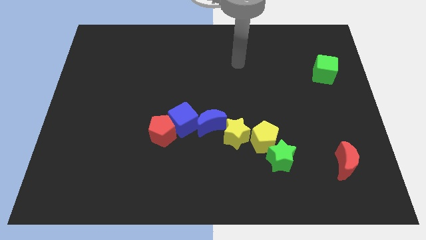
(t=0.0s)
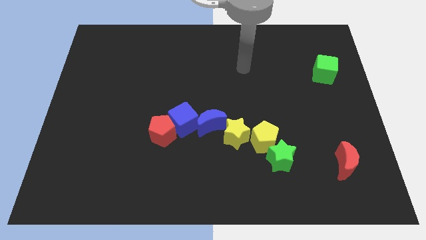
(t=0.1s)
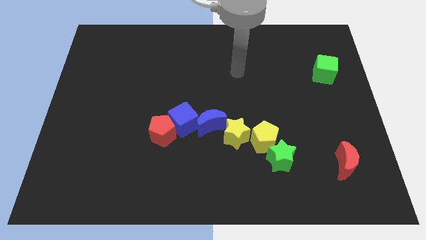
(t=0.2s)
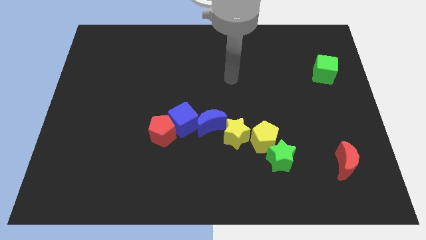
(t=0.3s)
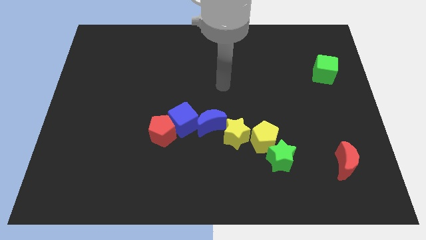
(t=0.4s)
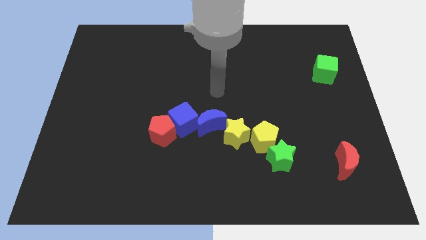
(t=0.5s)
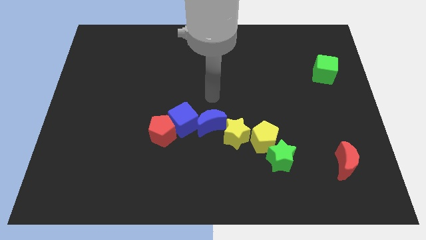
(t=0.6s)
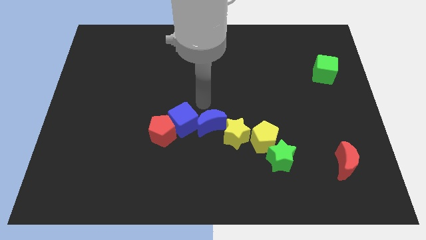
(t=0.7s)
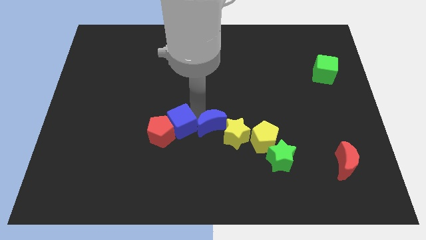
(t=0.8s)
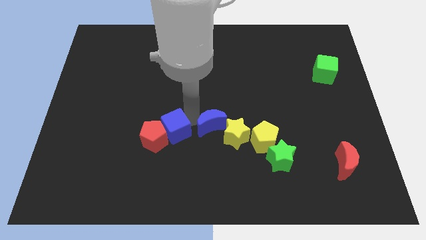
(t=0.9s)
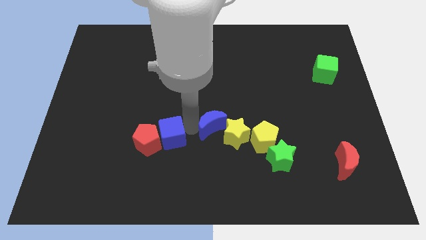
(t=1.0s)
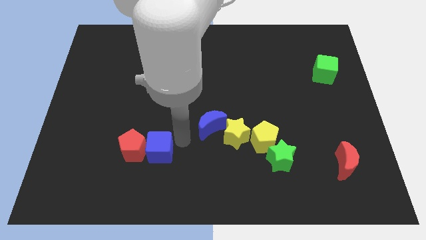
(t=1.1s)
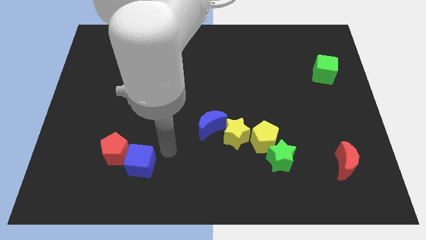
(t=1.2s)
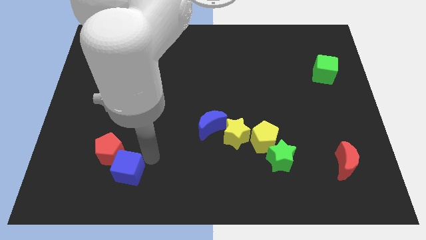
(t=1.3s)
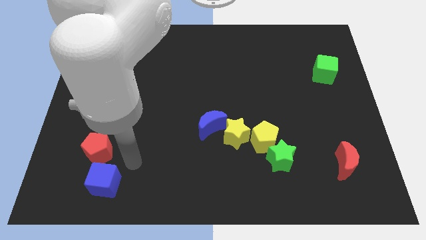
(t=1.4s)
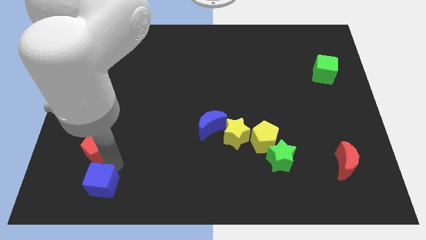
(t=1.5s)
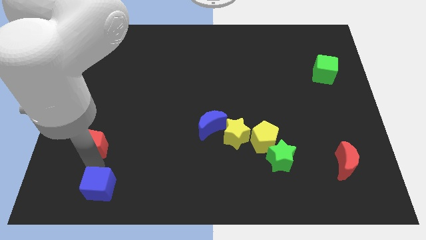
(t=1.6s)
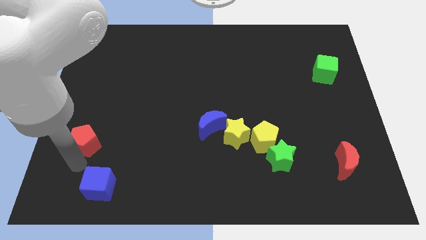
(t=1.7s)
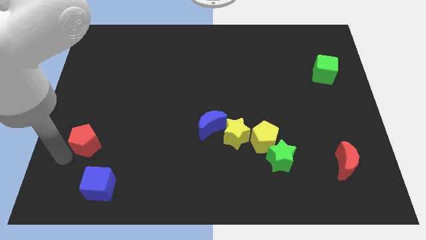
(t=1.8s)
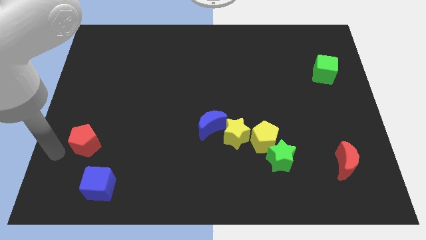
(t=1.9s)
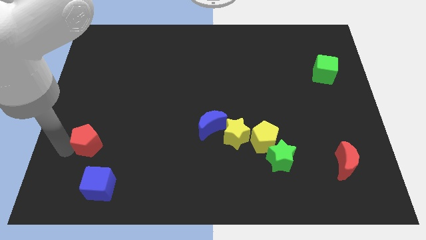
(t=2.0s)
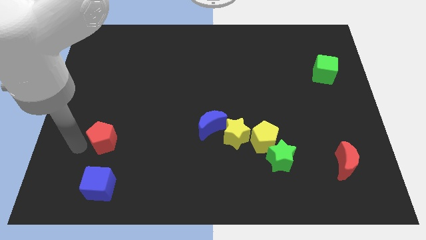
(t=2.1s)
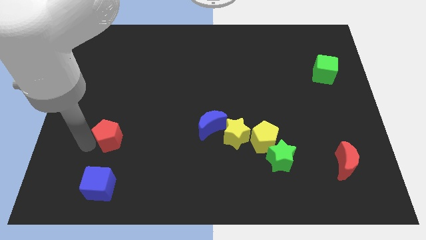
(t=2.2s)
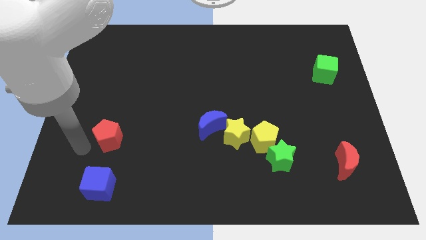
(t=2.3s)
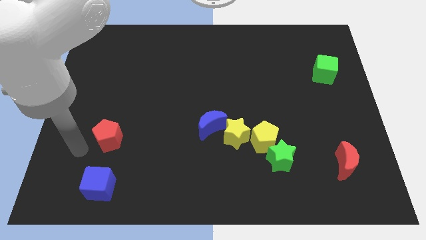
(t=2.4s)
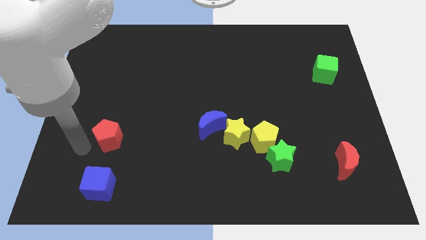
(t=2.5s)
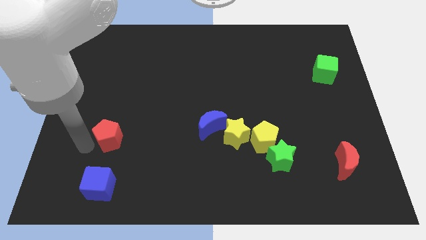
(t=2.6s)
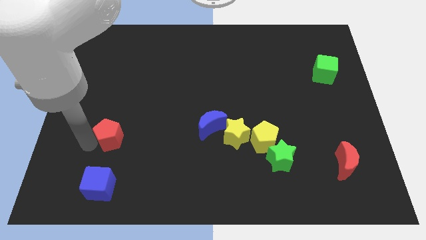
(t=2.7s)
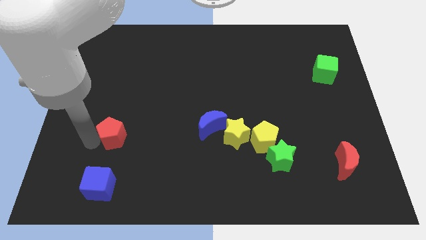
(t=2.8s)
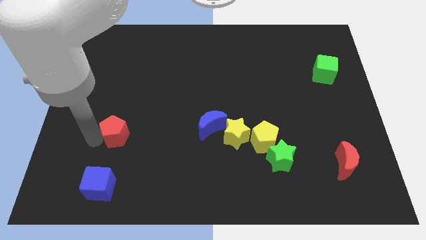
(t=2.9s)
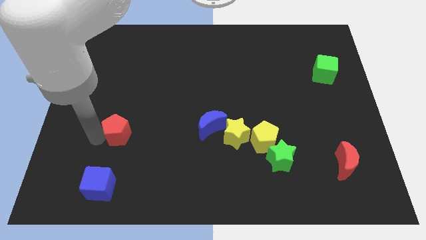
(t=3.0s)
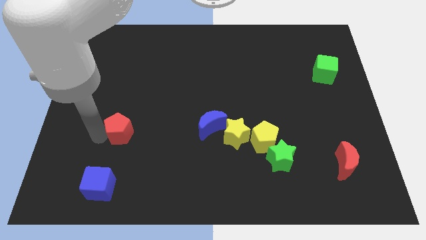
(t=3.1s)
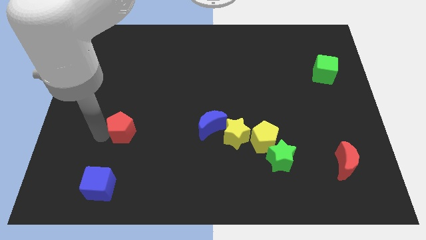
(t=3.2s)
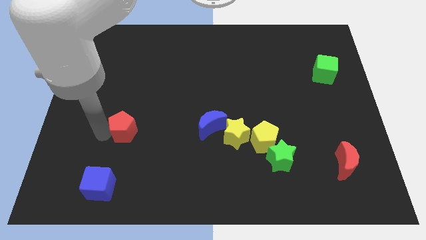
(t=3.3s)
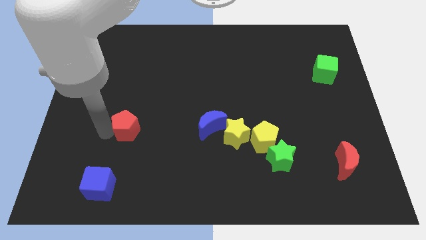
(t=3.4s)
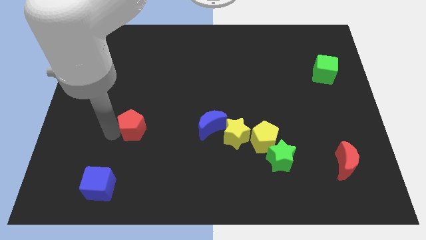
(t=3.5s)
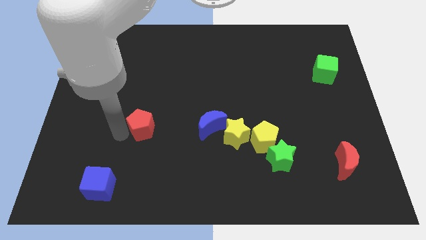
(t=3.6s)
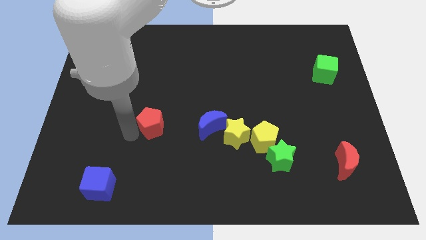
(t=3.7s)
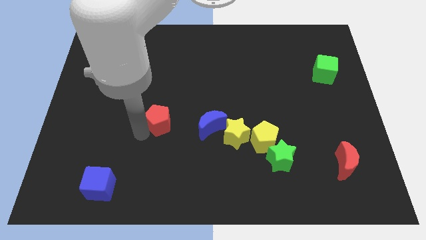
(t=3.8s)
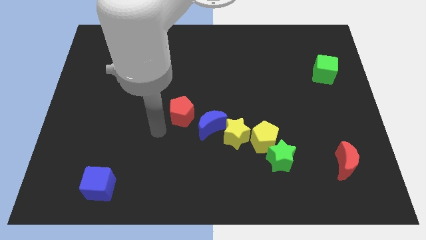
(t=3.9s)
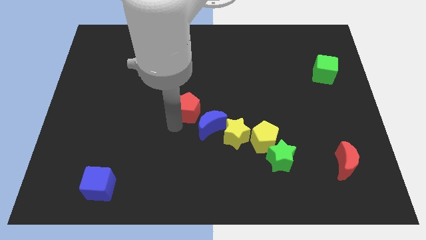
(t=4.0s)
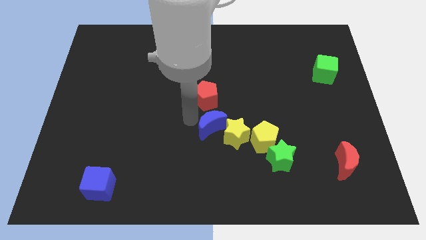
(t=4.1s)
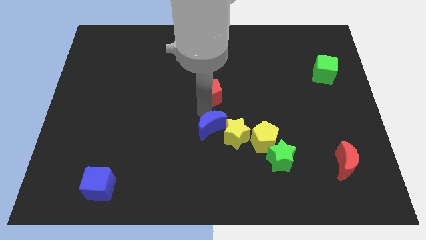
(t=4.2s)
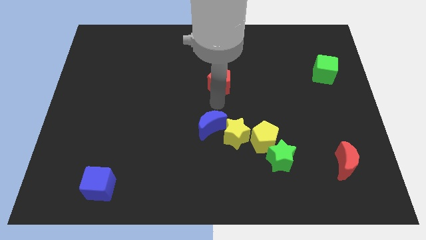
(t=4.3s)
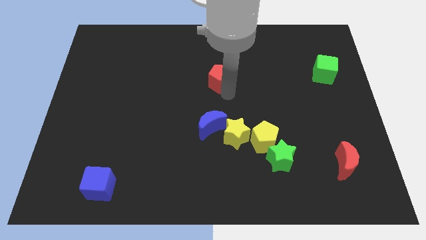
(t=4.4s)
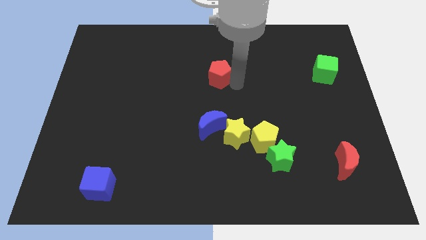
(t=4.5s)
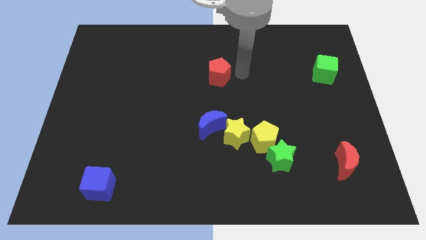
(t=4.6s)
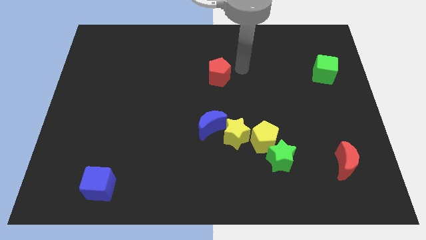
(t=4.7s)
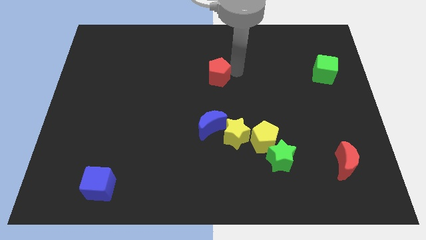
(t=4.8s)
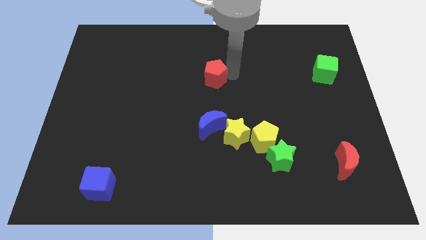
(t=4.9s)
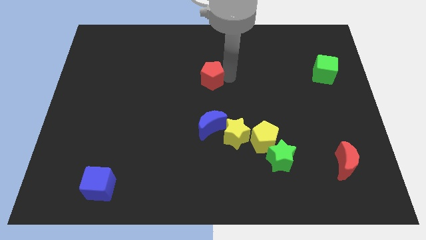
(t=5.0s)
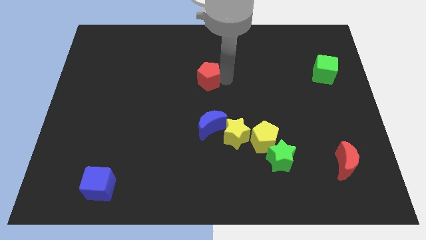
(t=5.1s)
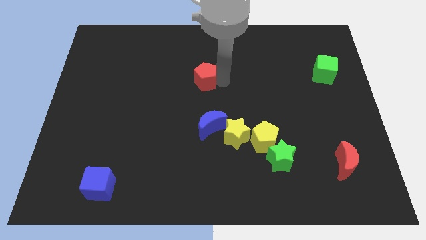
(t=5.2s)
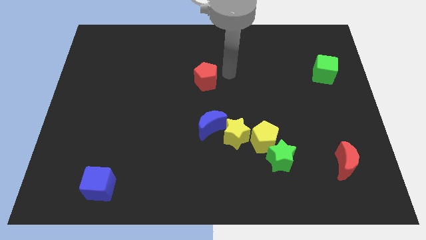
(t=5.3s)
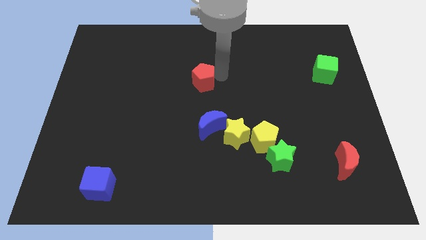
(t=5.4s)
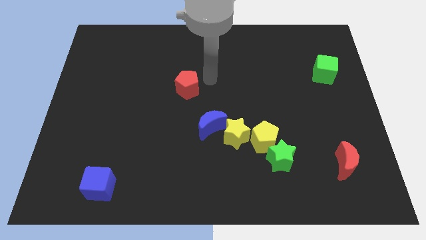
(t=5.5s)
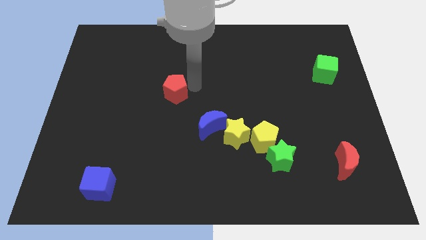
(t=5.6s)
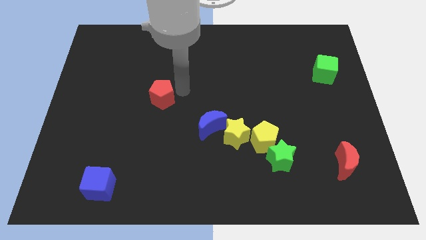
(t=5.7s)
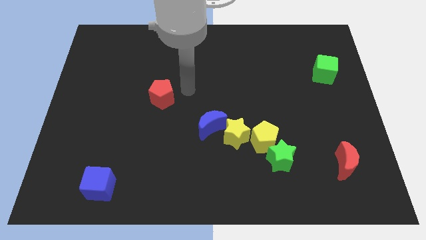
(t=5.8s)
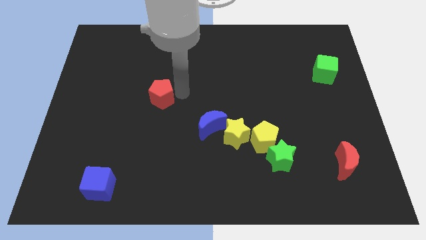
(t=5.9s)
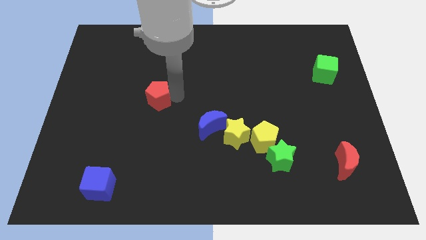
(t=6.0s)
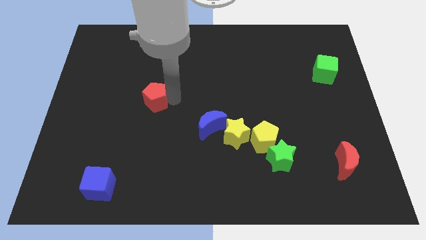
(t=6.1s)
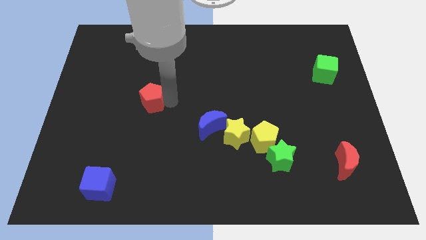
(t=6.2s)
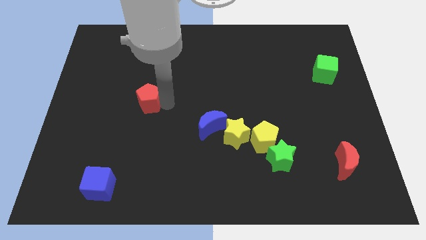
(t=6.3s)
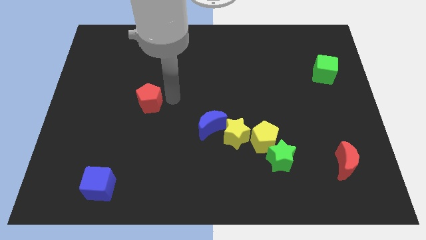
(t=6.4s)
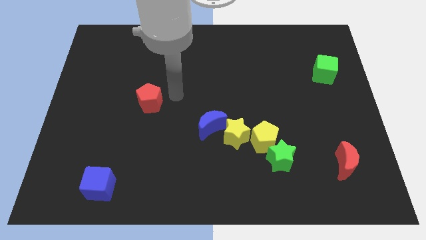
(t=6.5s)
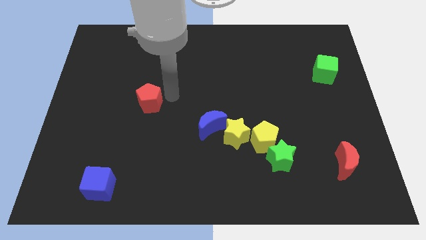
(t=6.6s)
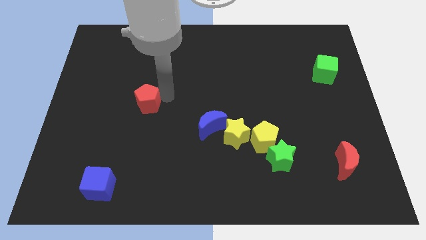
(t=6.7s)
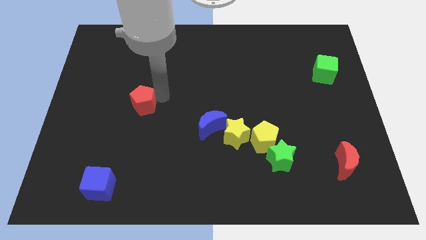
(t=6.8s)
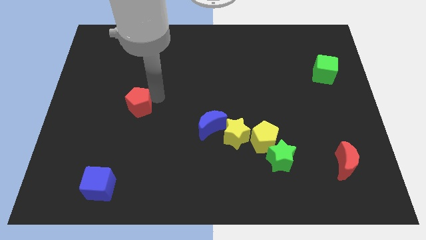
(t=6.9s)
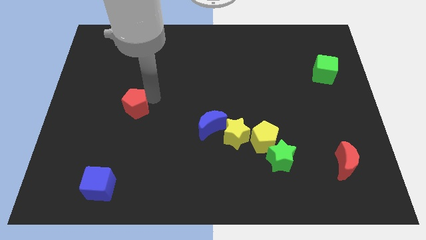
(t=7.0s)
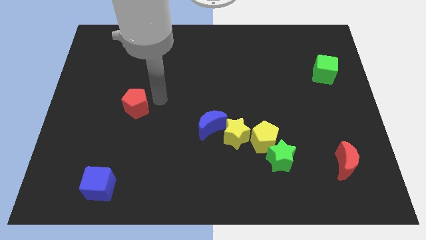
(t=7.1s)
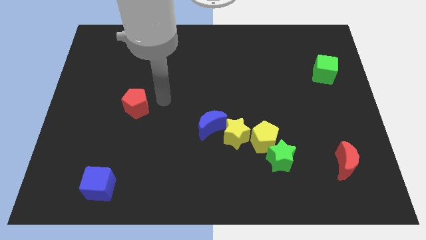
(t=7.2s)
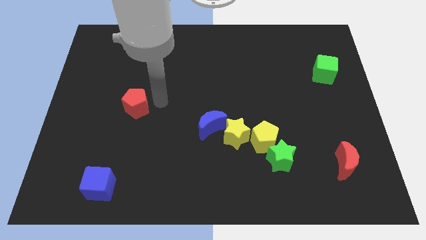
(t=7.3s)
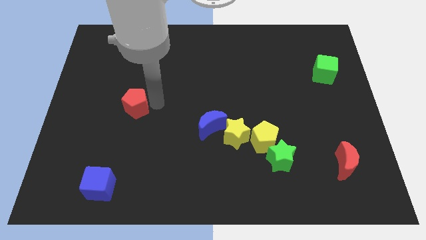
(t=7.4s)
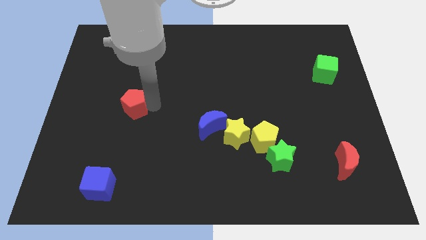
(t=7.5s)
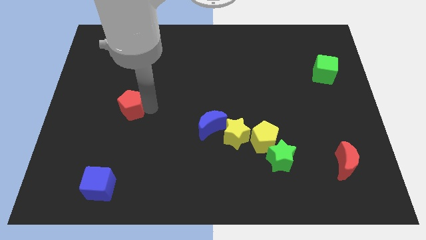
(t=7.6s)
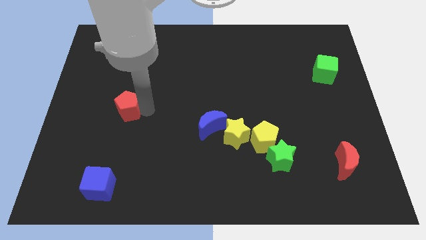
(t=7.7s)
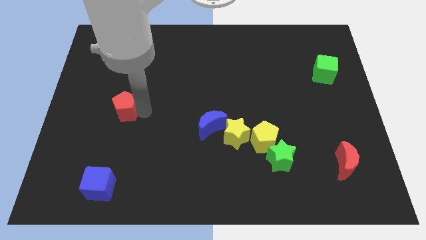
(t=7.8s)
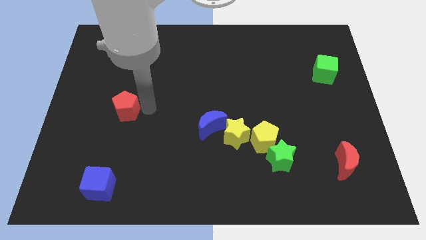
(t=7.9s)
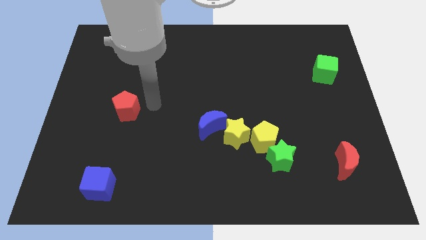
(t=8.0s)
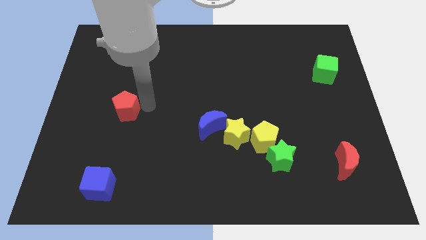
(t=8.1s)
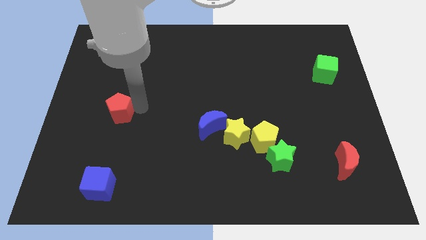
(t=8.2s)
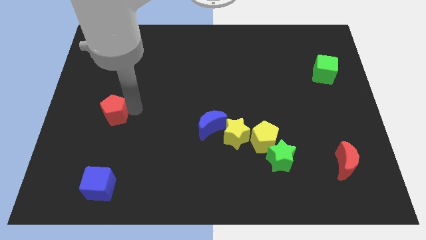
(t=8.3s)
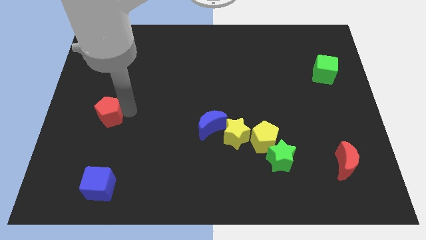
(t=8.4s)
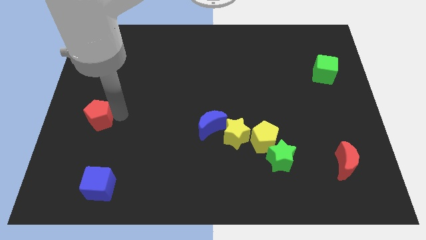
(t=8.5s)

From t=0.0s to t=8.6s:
slide the red pentagon to the left side of the board
